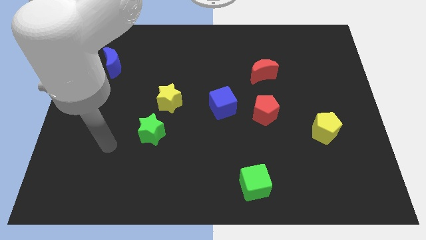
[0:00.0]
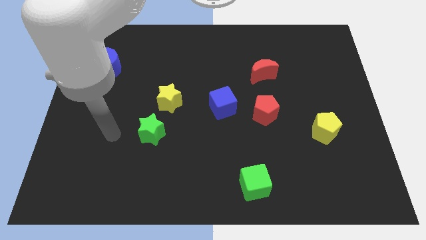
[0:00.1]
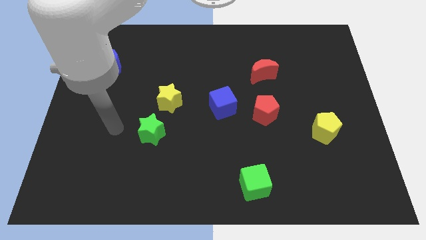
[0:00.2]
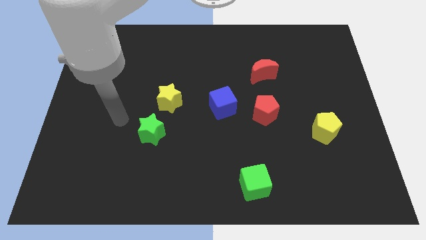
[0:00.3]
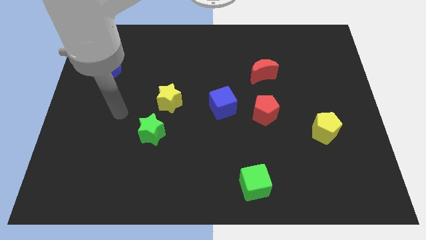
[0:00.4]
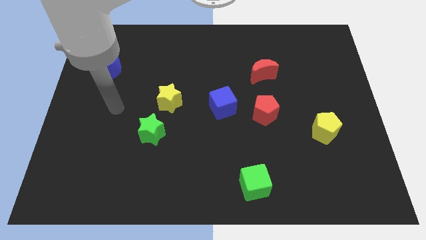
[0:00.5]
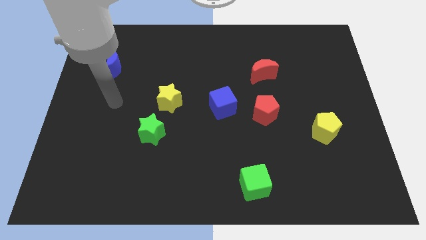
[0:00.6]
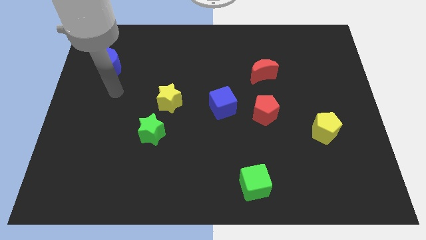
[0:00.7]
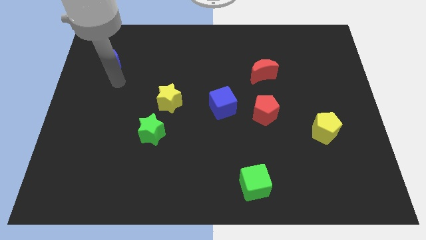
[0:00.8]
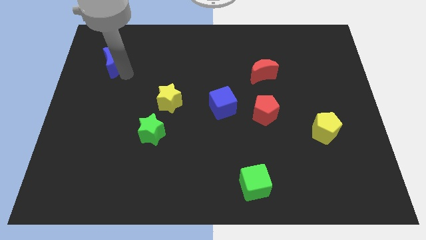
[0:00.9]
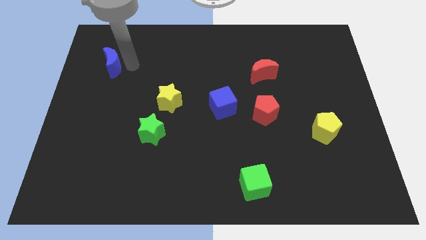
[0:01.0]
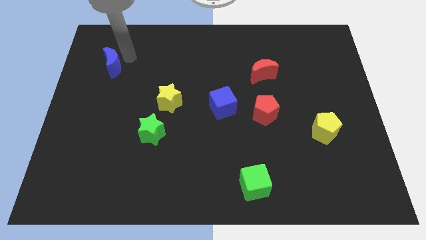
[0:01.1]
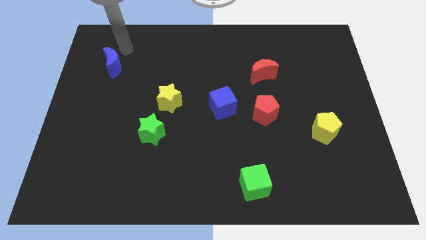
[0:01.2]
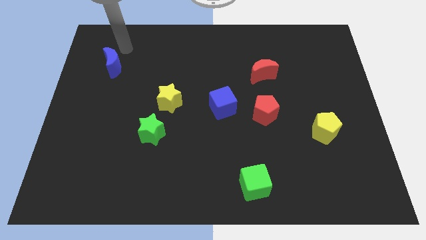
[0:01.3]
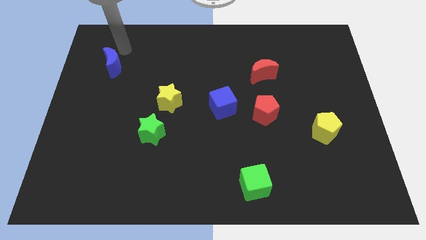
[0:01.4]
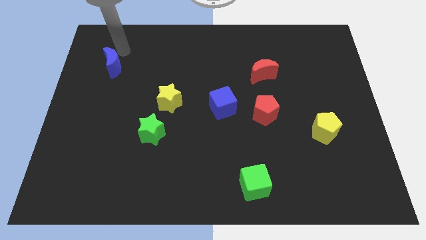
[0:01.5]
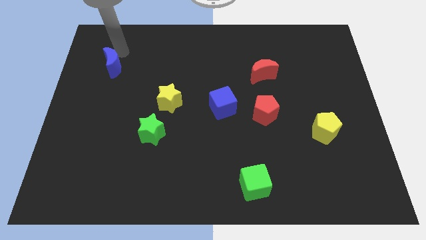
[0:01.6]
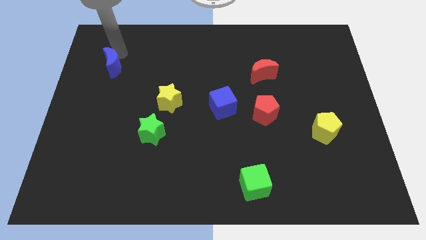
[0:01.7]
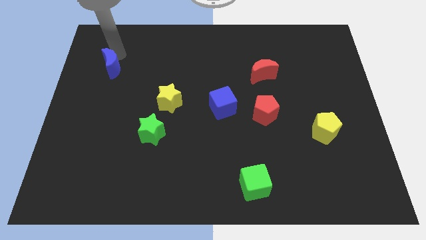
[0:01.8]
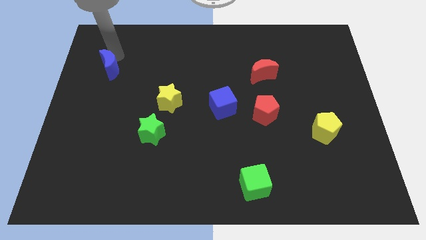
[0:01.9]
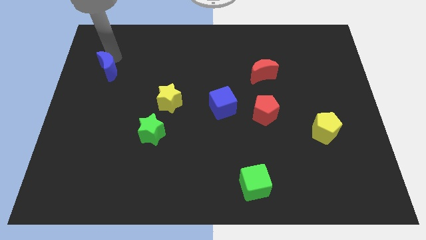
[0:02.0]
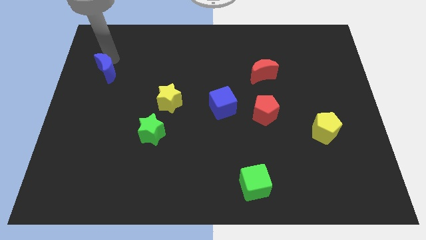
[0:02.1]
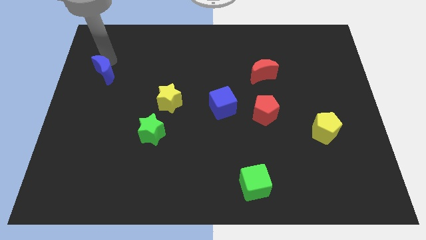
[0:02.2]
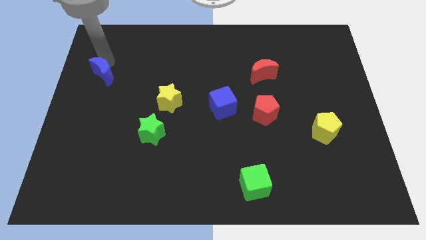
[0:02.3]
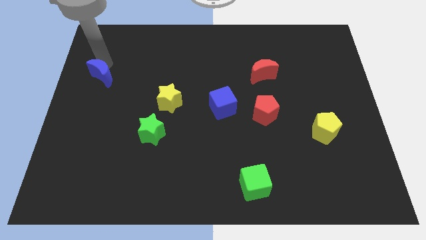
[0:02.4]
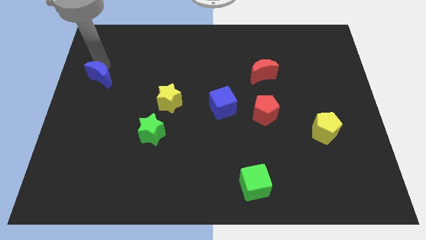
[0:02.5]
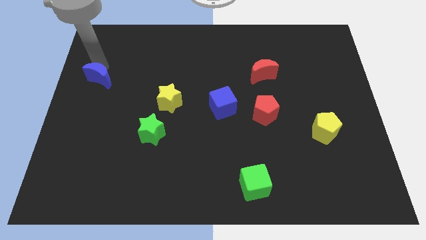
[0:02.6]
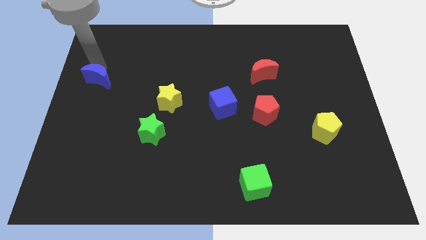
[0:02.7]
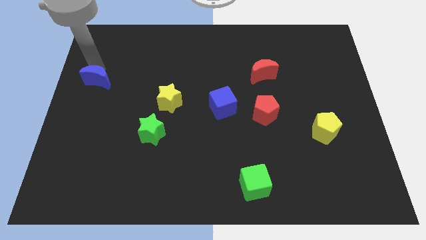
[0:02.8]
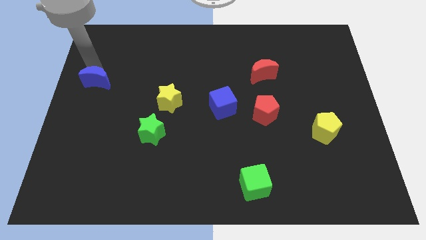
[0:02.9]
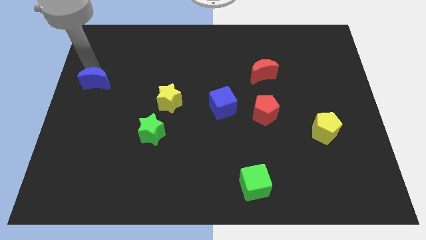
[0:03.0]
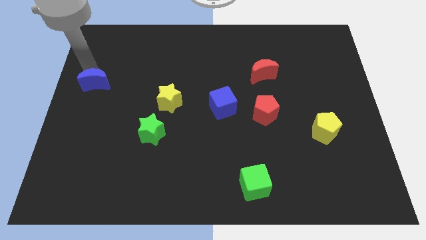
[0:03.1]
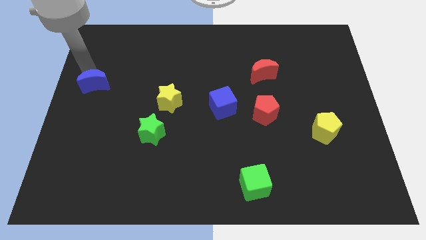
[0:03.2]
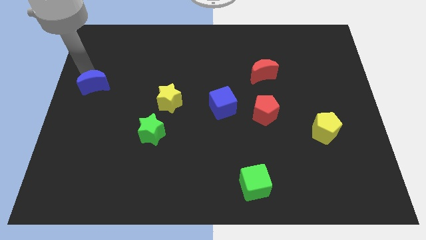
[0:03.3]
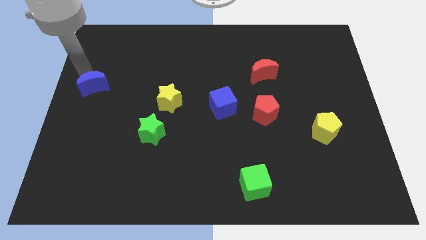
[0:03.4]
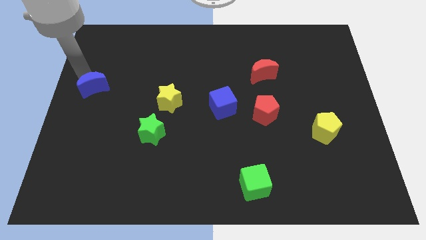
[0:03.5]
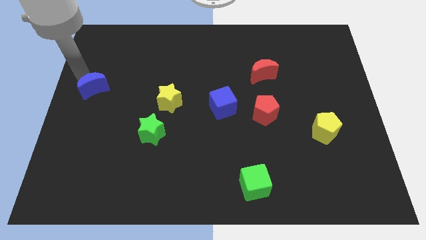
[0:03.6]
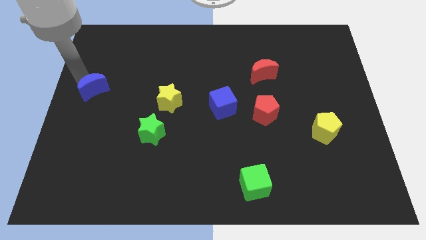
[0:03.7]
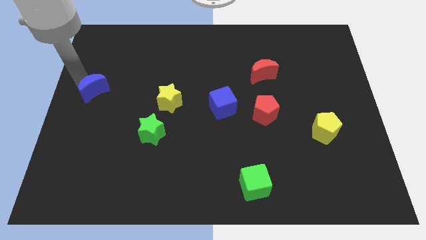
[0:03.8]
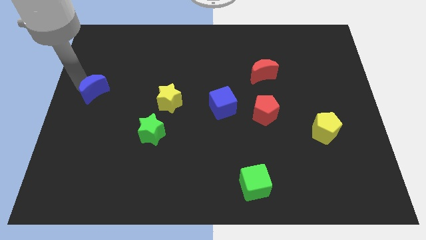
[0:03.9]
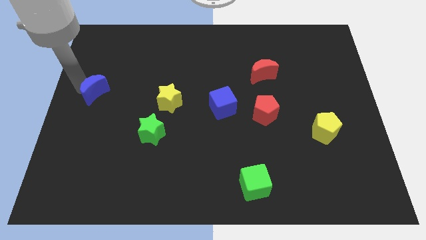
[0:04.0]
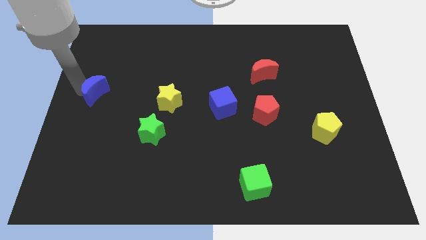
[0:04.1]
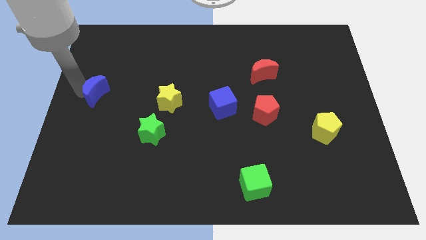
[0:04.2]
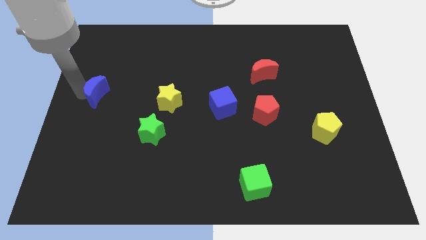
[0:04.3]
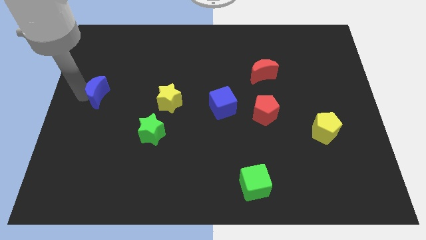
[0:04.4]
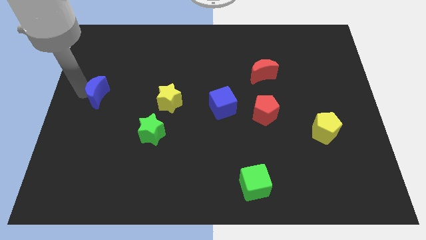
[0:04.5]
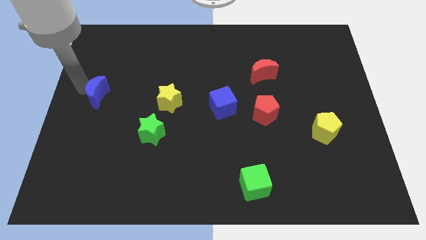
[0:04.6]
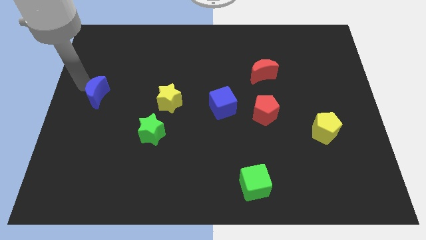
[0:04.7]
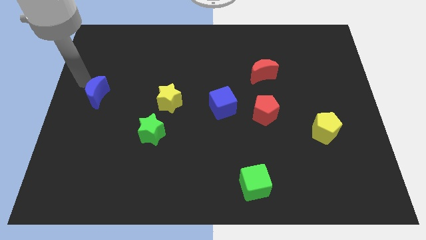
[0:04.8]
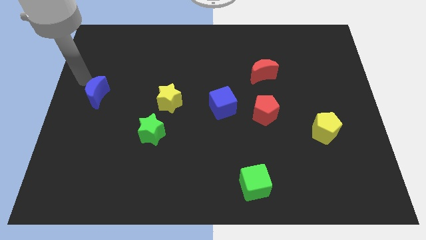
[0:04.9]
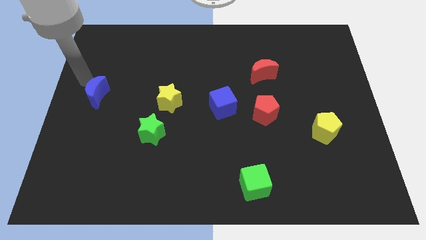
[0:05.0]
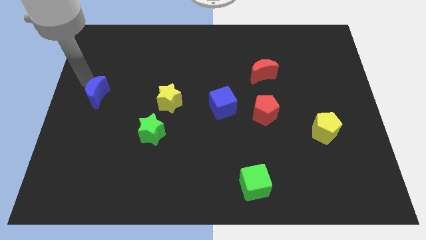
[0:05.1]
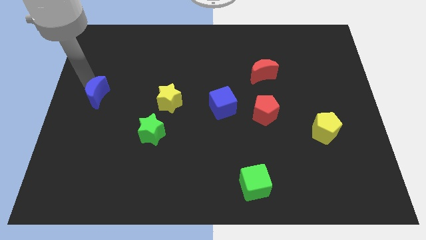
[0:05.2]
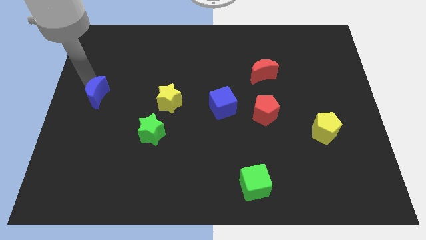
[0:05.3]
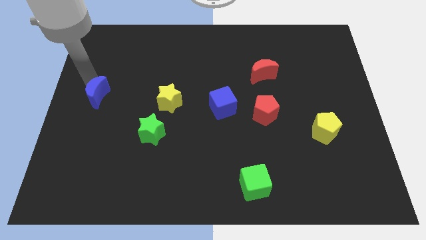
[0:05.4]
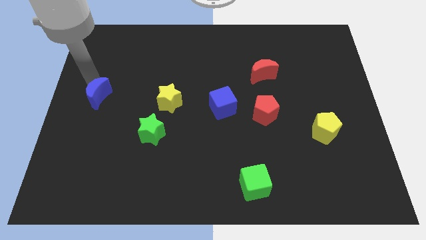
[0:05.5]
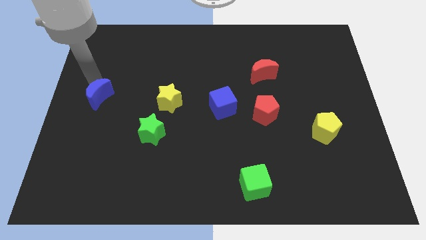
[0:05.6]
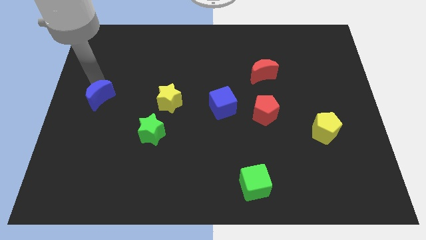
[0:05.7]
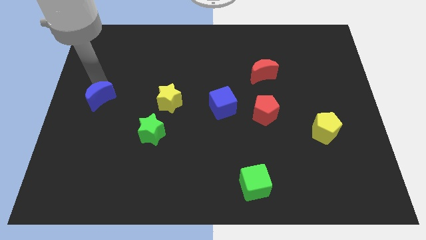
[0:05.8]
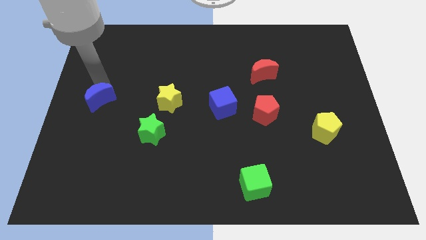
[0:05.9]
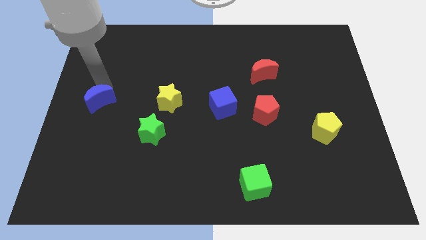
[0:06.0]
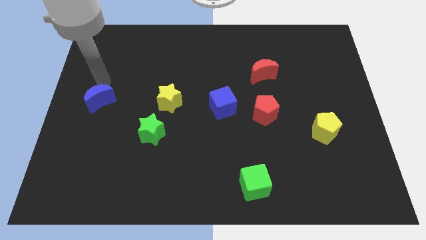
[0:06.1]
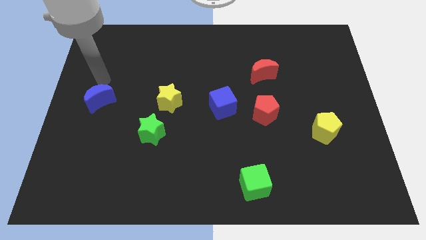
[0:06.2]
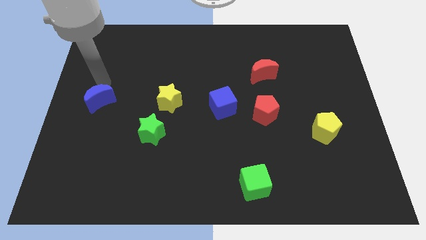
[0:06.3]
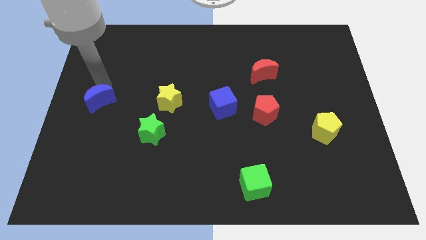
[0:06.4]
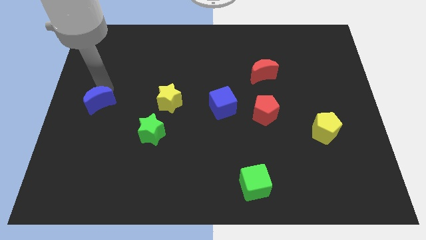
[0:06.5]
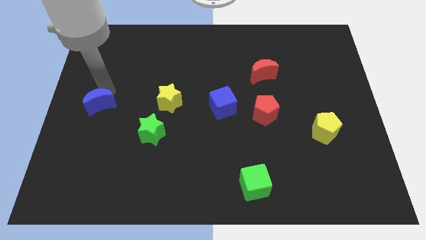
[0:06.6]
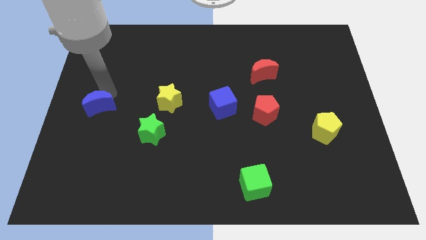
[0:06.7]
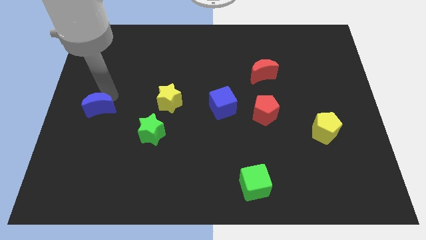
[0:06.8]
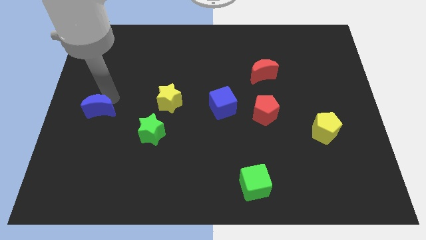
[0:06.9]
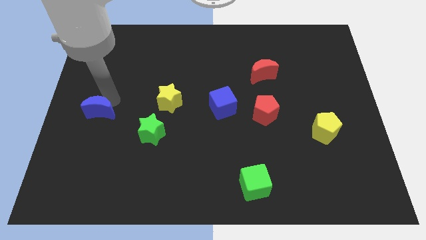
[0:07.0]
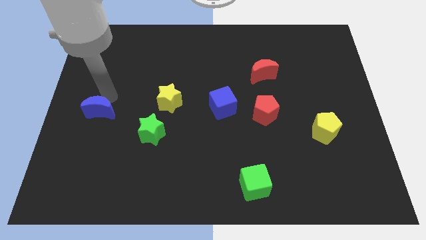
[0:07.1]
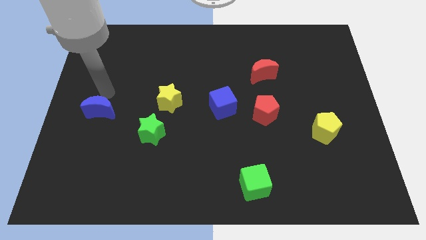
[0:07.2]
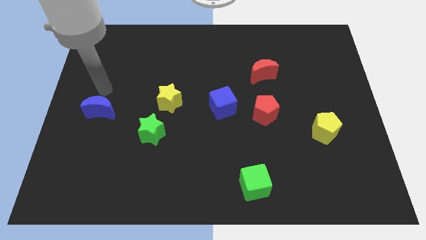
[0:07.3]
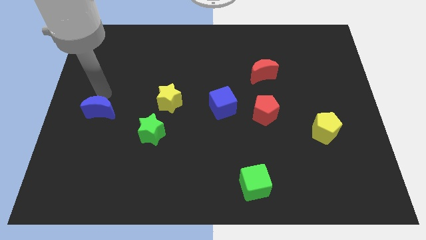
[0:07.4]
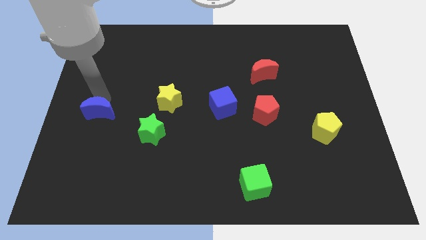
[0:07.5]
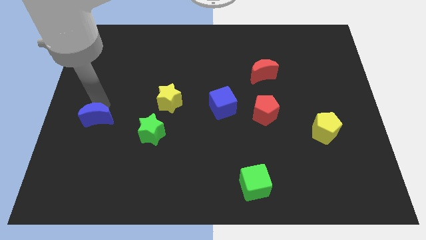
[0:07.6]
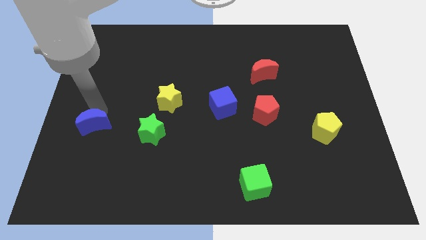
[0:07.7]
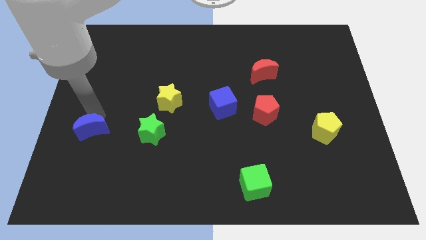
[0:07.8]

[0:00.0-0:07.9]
move the blue moon down

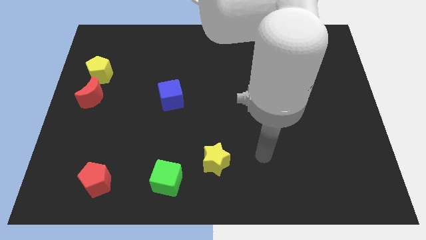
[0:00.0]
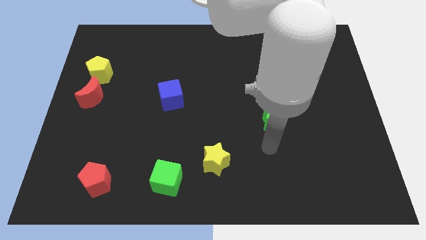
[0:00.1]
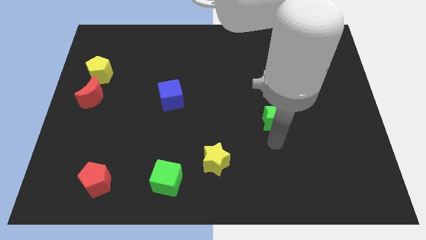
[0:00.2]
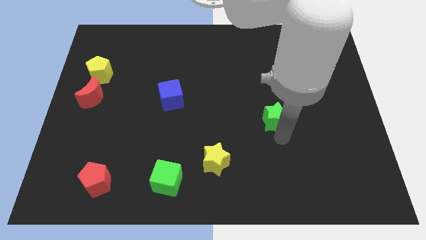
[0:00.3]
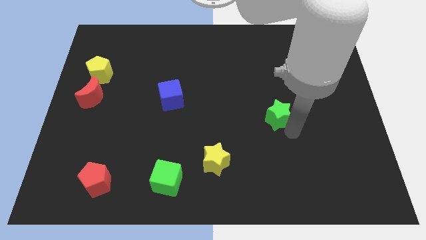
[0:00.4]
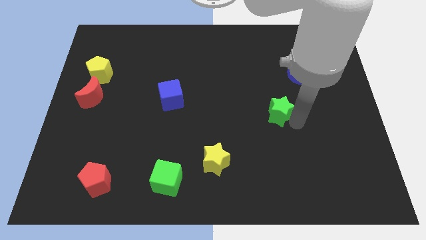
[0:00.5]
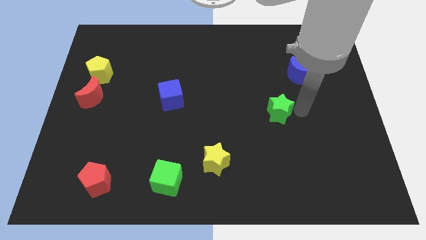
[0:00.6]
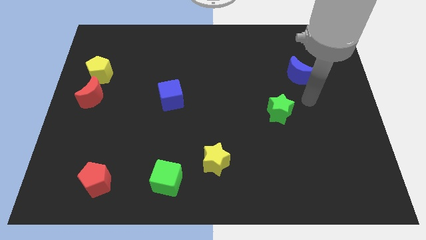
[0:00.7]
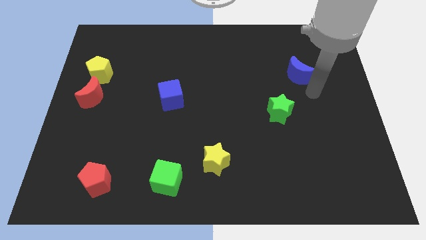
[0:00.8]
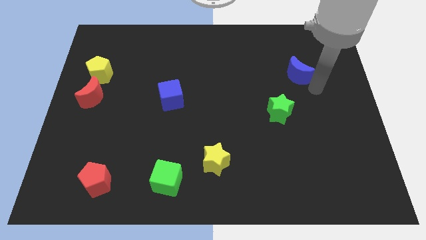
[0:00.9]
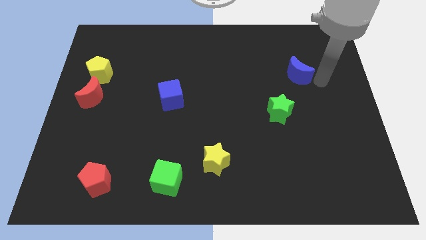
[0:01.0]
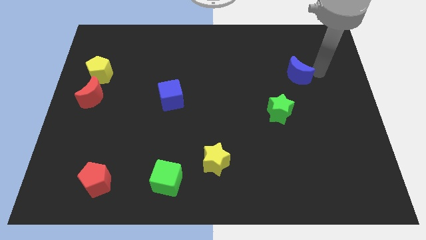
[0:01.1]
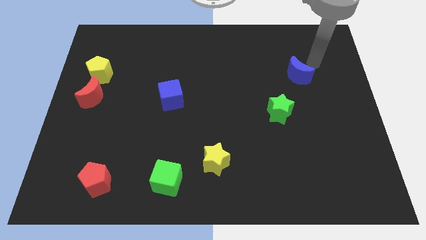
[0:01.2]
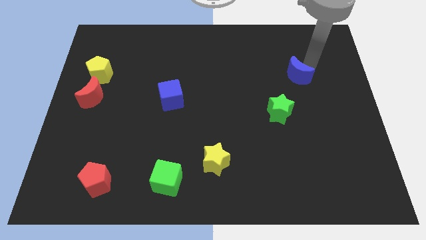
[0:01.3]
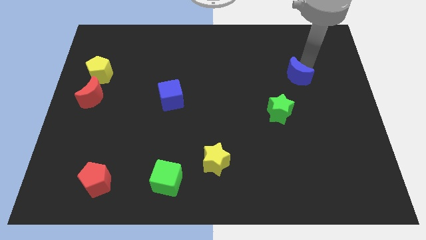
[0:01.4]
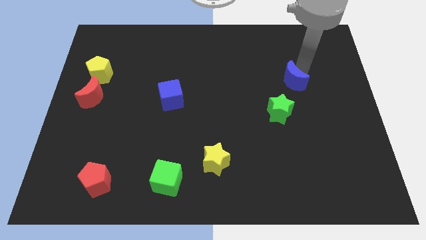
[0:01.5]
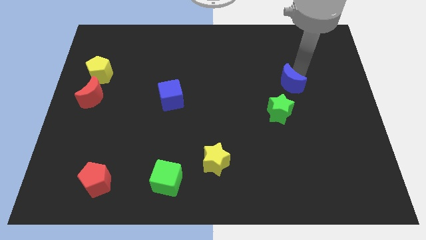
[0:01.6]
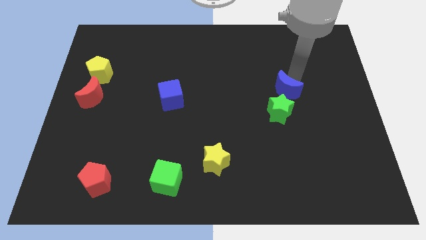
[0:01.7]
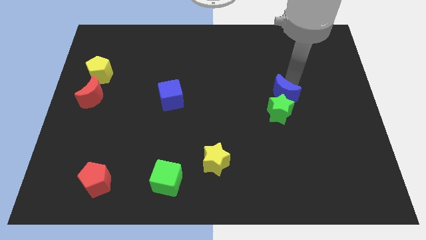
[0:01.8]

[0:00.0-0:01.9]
push the blue moon downwards and to the left diagonally a little bit
